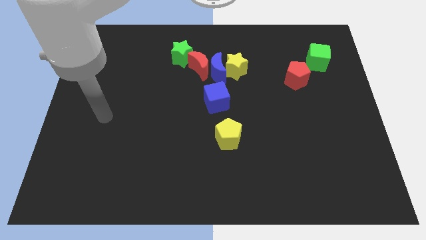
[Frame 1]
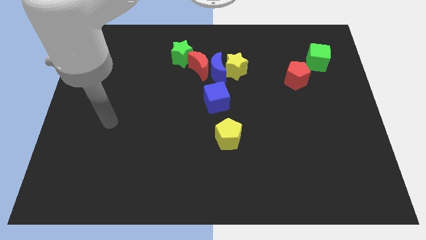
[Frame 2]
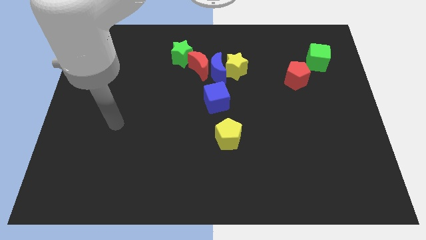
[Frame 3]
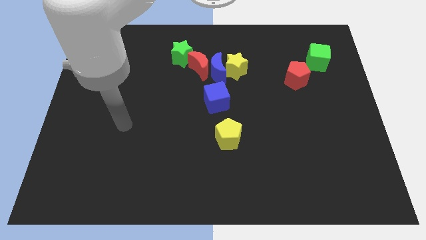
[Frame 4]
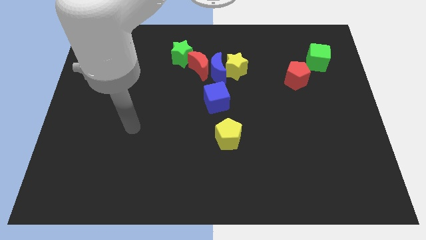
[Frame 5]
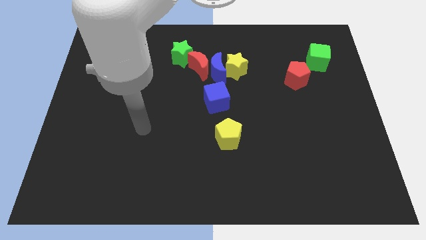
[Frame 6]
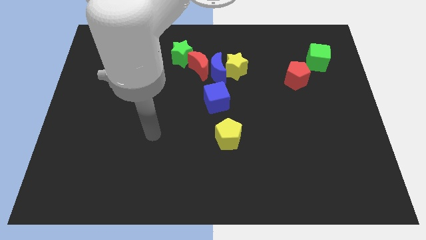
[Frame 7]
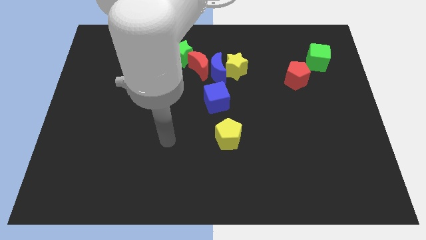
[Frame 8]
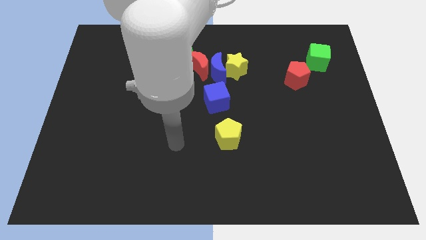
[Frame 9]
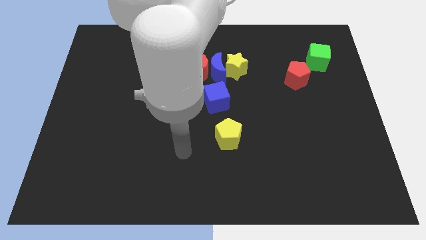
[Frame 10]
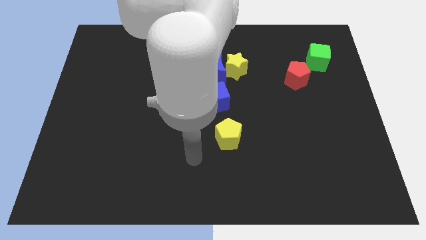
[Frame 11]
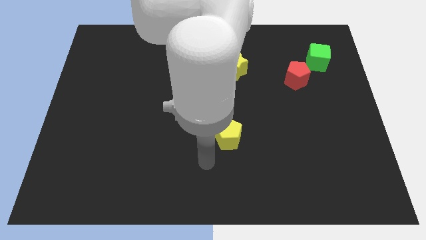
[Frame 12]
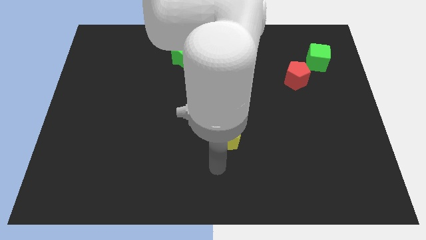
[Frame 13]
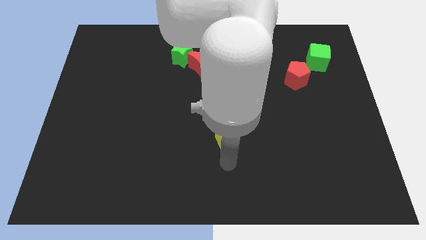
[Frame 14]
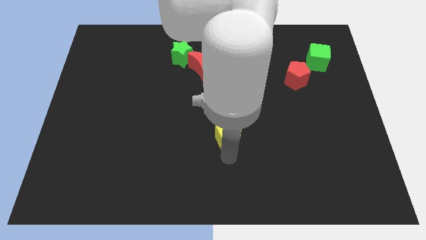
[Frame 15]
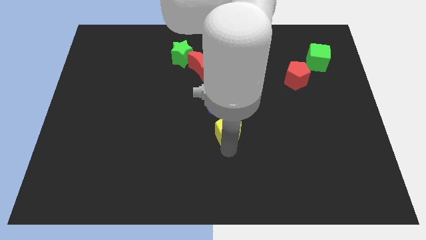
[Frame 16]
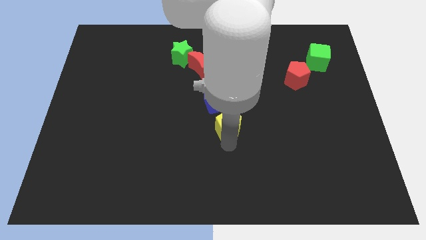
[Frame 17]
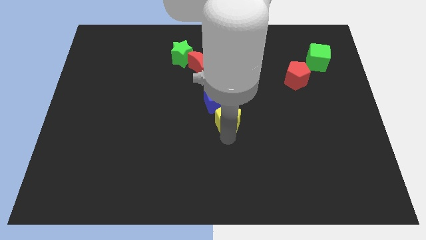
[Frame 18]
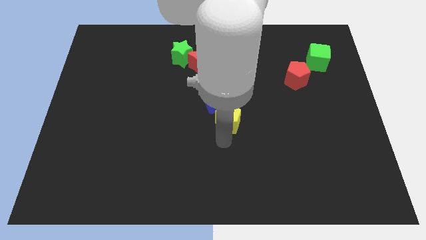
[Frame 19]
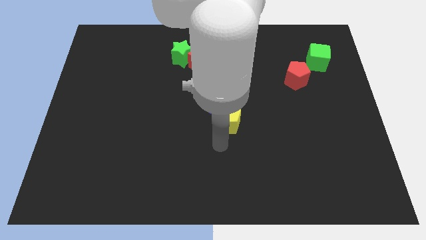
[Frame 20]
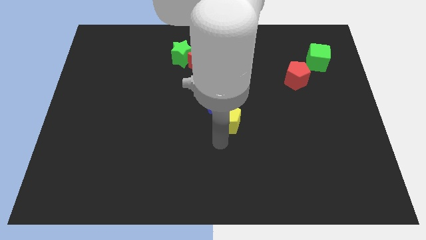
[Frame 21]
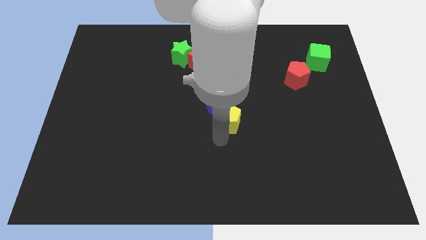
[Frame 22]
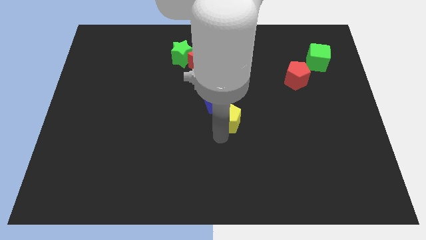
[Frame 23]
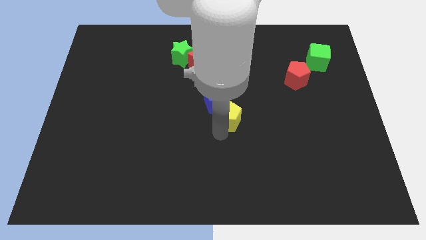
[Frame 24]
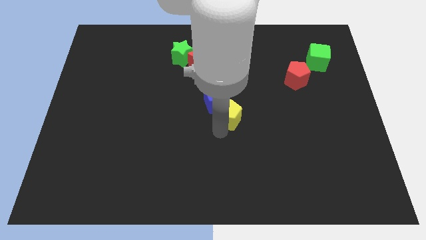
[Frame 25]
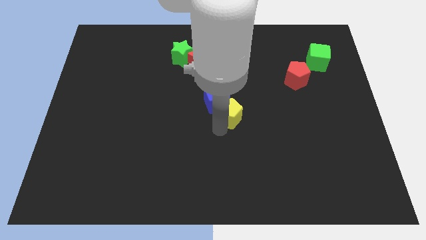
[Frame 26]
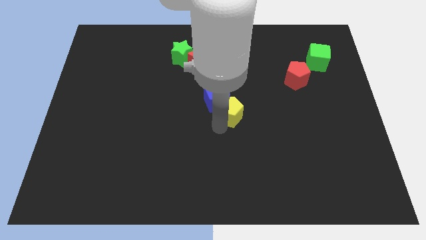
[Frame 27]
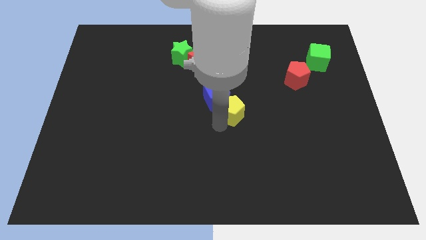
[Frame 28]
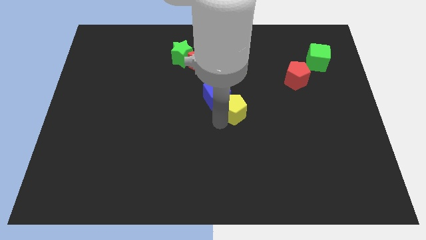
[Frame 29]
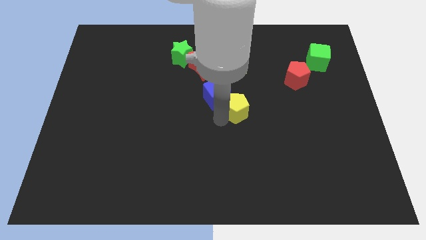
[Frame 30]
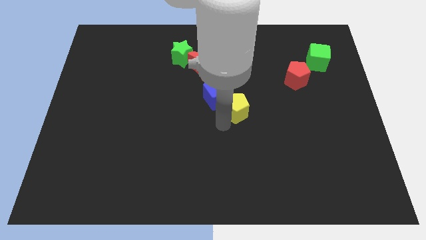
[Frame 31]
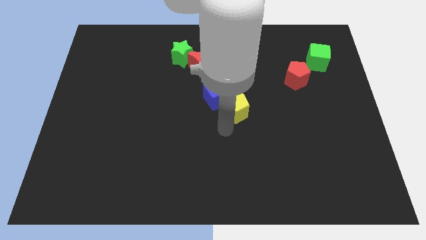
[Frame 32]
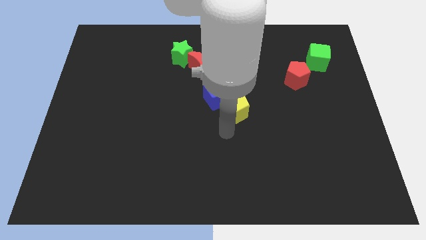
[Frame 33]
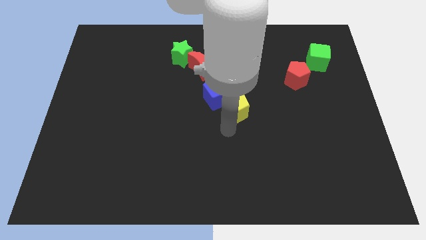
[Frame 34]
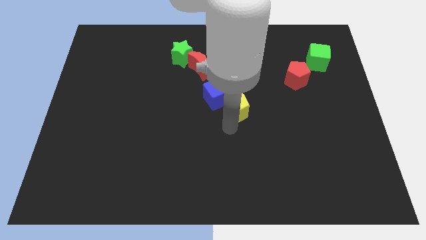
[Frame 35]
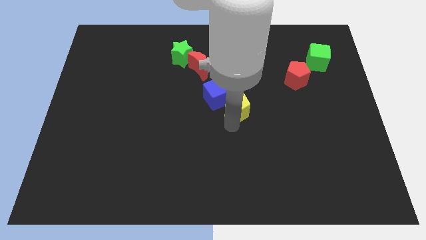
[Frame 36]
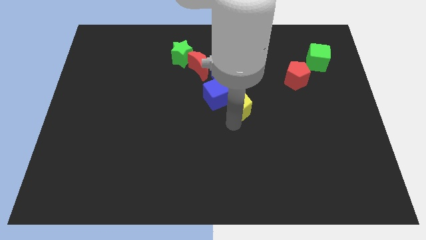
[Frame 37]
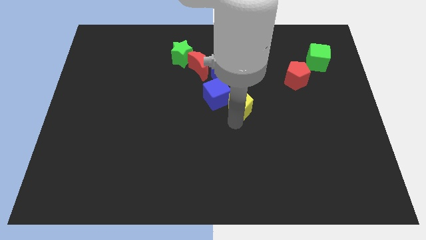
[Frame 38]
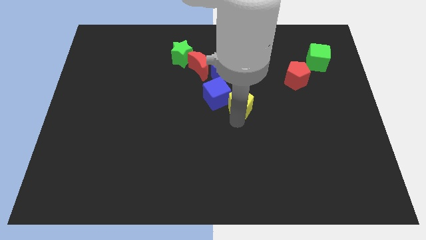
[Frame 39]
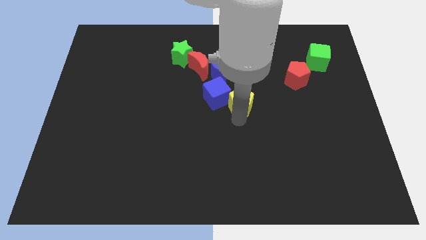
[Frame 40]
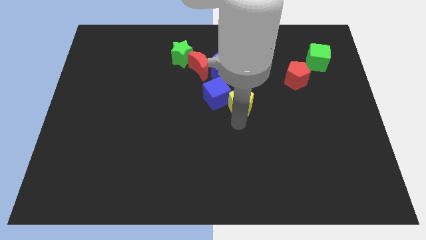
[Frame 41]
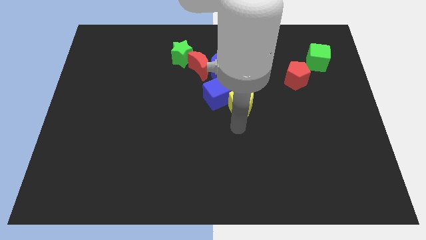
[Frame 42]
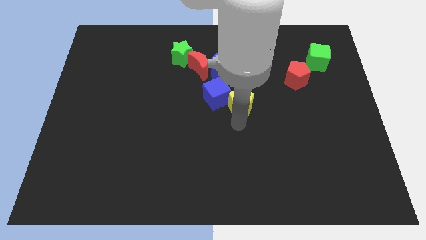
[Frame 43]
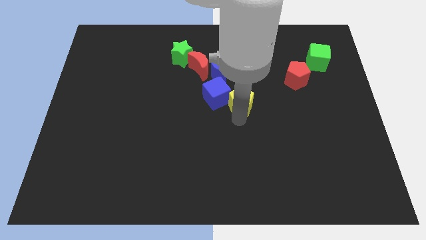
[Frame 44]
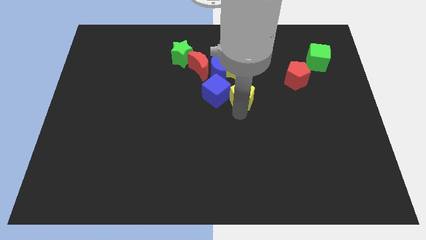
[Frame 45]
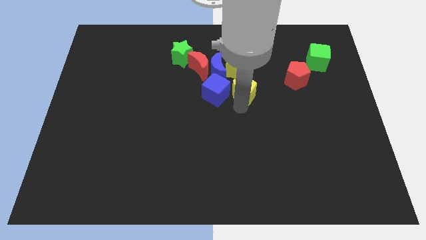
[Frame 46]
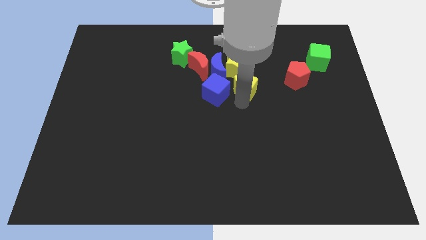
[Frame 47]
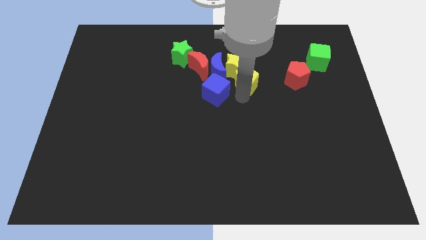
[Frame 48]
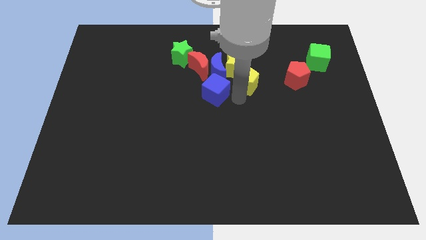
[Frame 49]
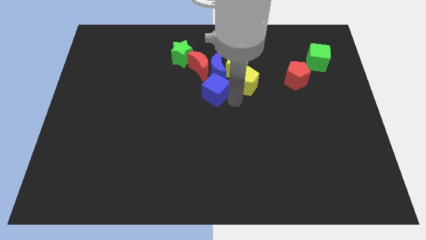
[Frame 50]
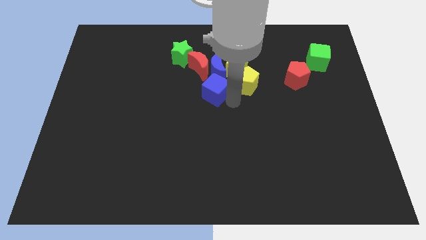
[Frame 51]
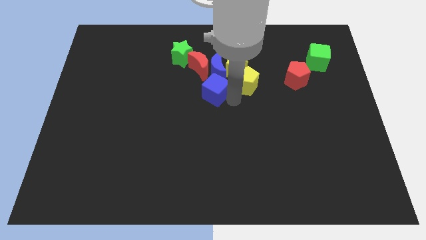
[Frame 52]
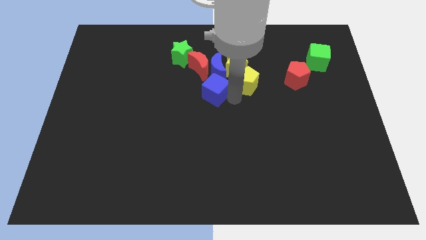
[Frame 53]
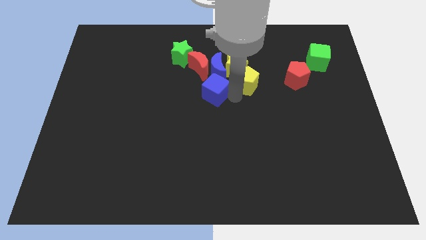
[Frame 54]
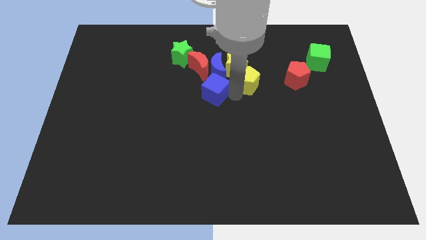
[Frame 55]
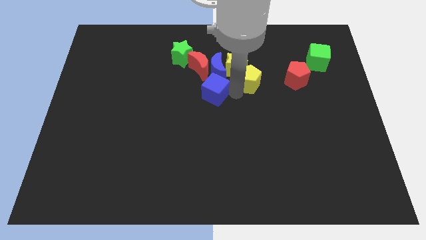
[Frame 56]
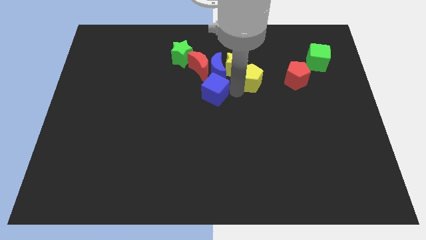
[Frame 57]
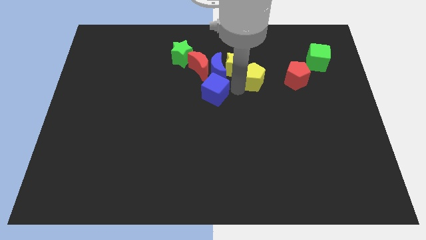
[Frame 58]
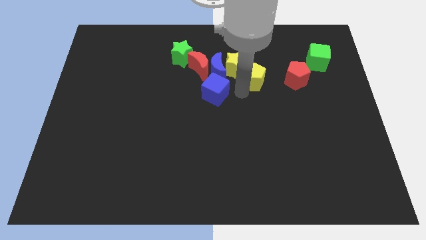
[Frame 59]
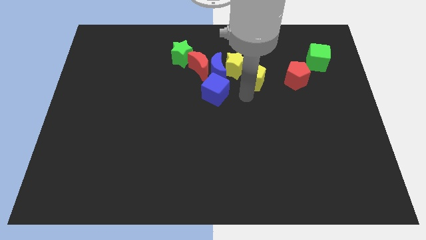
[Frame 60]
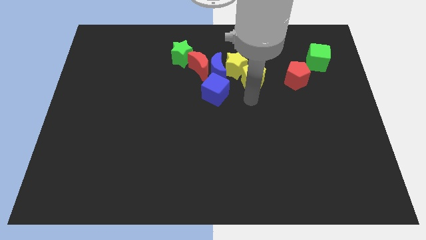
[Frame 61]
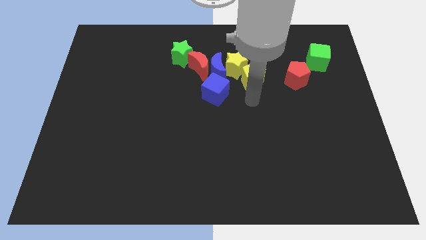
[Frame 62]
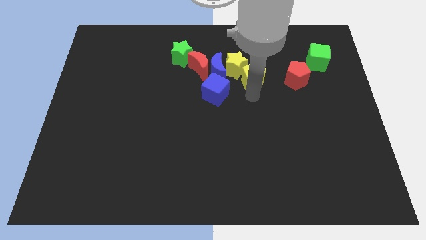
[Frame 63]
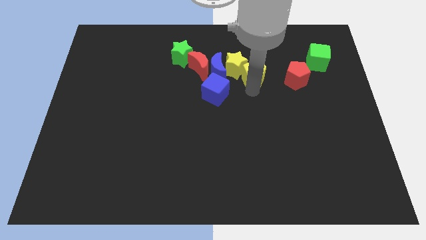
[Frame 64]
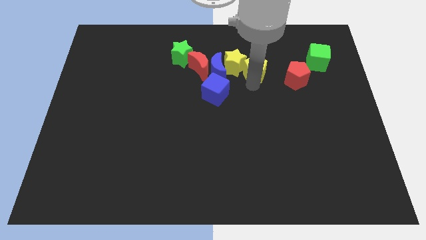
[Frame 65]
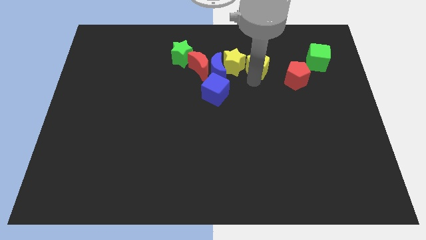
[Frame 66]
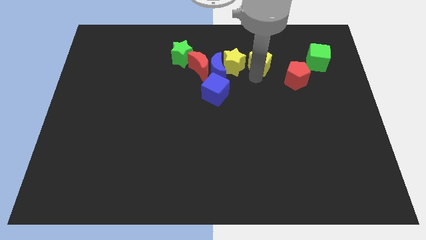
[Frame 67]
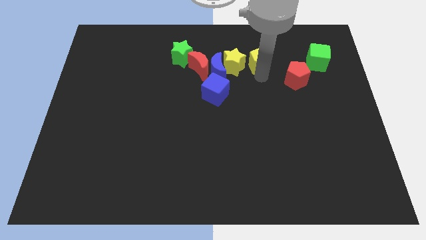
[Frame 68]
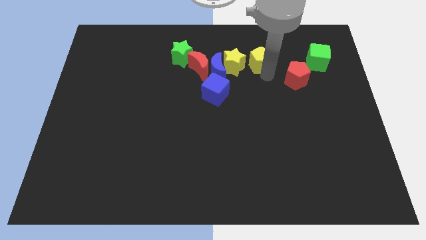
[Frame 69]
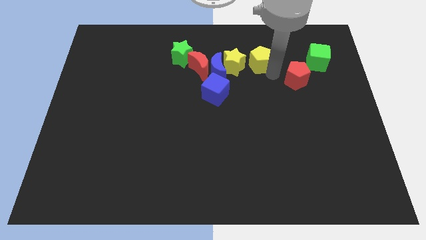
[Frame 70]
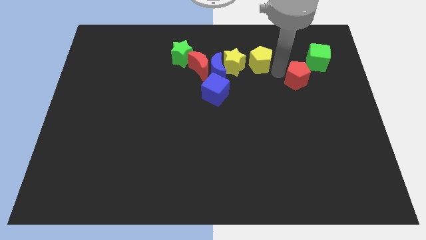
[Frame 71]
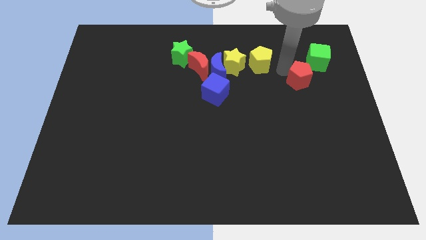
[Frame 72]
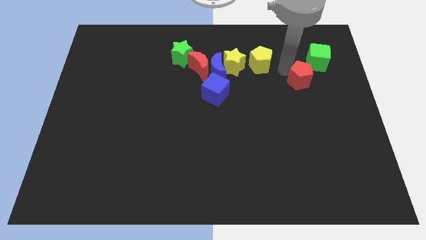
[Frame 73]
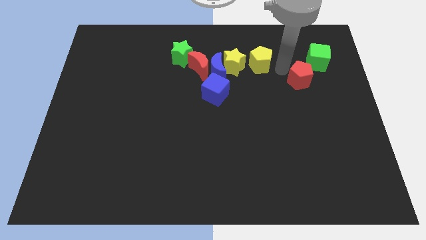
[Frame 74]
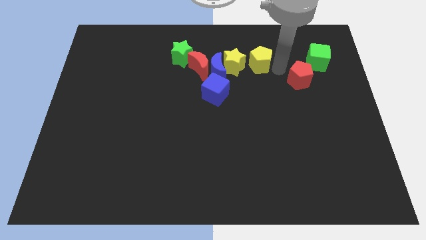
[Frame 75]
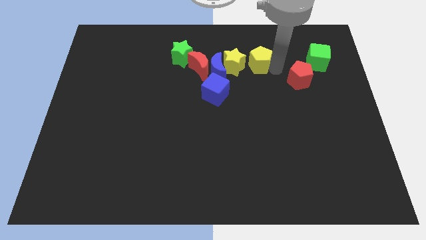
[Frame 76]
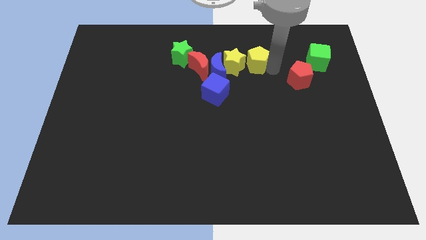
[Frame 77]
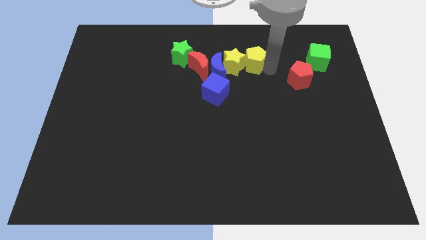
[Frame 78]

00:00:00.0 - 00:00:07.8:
slide the yellow pentagon diagonally up and to the right of the blue moon

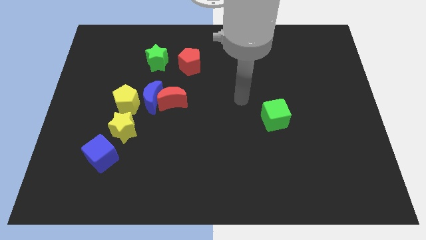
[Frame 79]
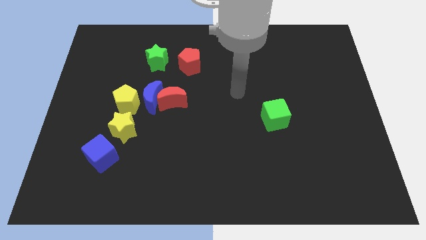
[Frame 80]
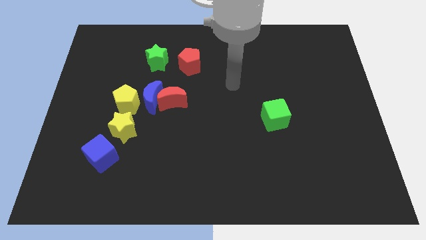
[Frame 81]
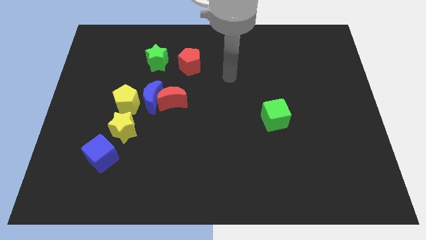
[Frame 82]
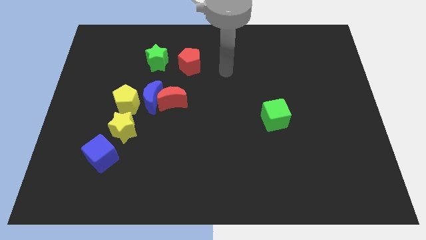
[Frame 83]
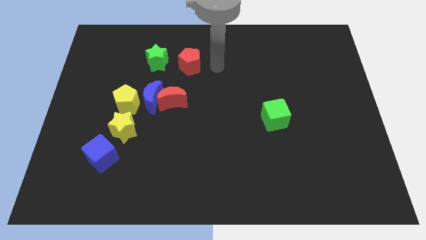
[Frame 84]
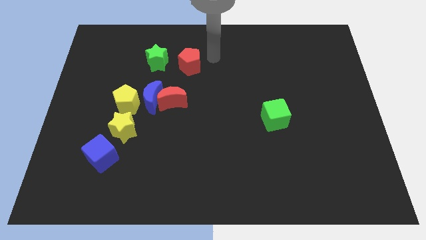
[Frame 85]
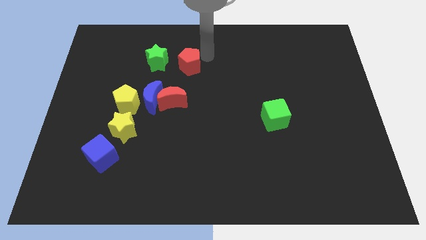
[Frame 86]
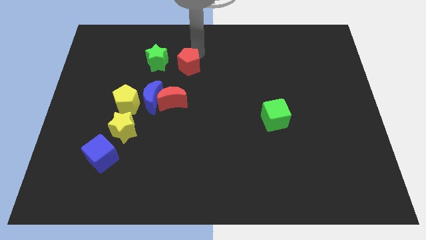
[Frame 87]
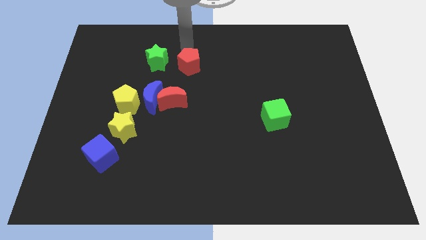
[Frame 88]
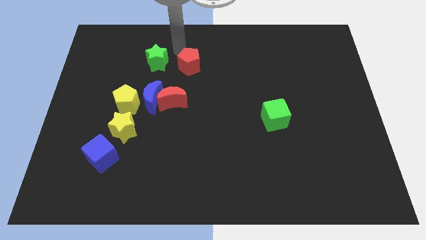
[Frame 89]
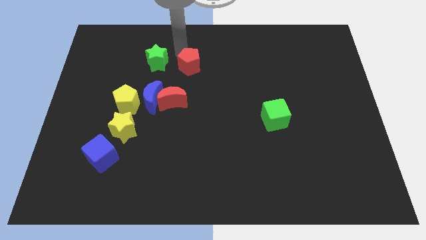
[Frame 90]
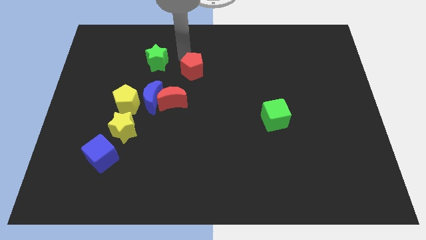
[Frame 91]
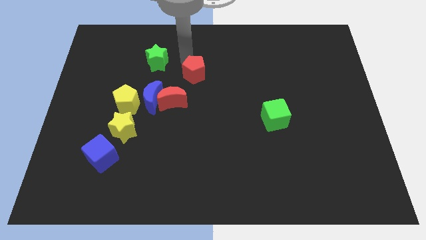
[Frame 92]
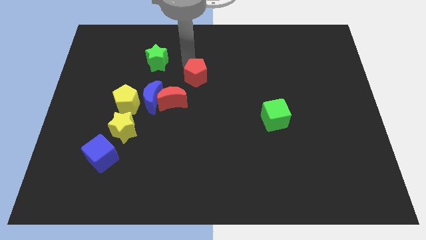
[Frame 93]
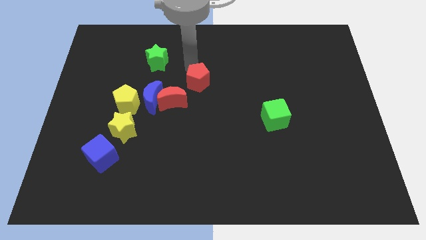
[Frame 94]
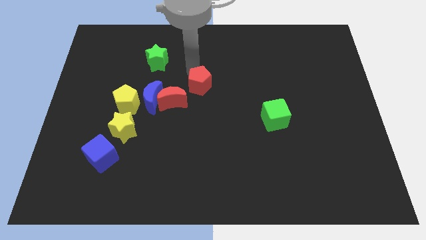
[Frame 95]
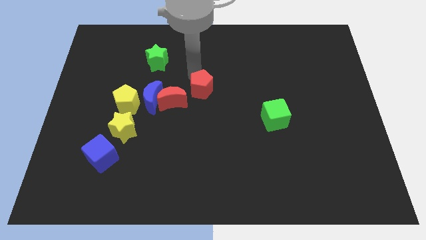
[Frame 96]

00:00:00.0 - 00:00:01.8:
move the red pentagon right of the red moon
